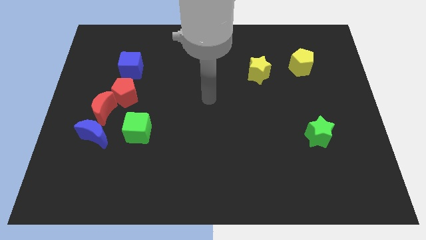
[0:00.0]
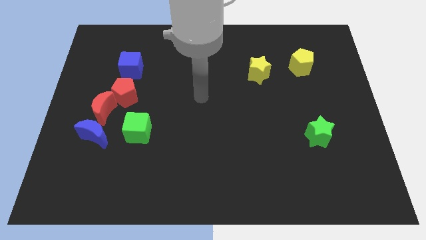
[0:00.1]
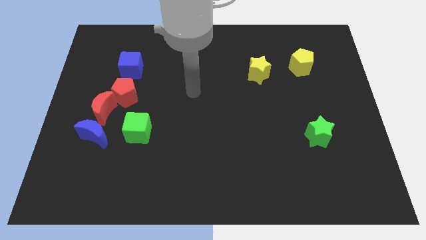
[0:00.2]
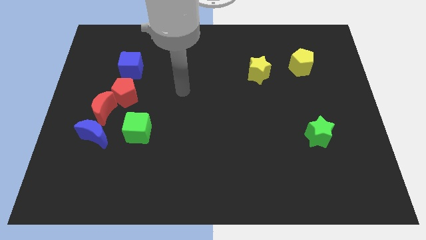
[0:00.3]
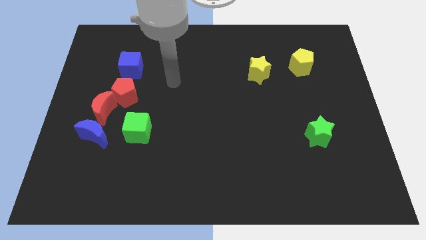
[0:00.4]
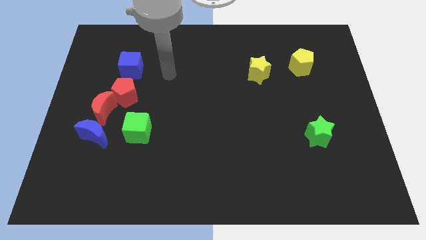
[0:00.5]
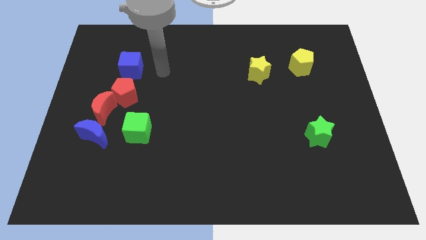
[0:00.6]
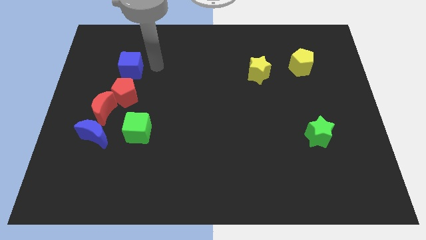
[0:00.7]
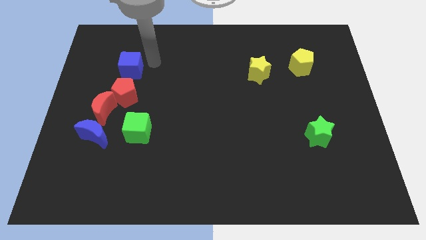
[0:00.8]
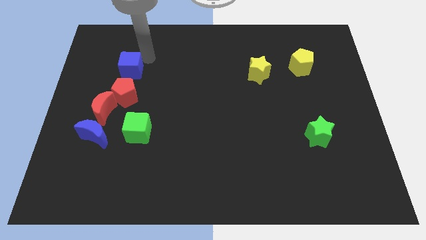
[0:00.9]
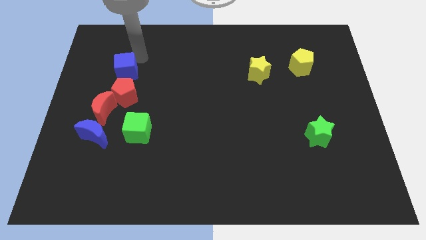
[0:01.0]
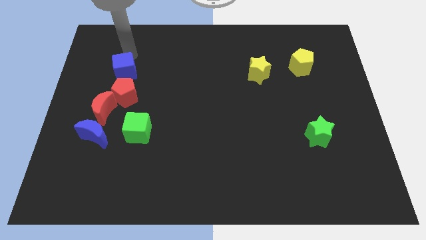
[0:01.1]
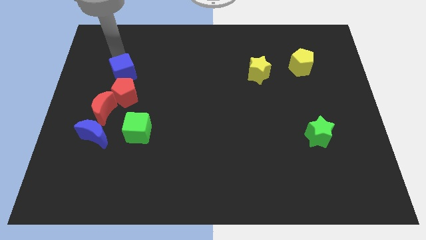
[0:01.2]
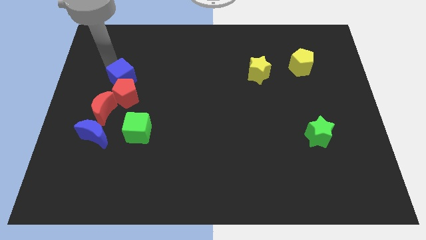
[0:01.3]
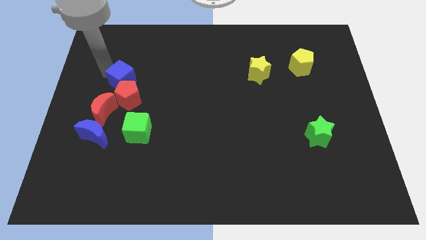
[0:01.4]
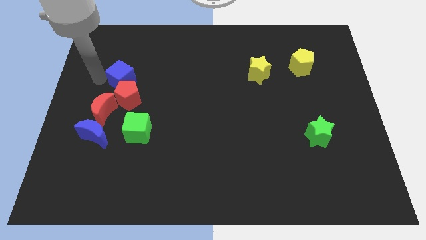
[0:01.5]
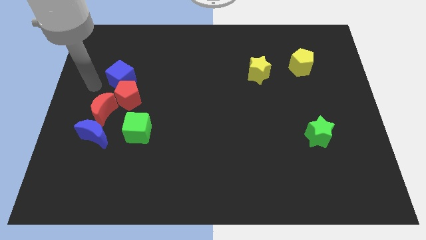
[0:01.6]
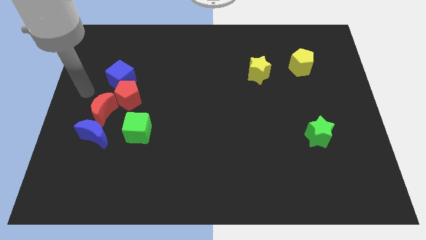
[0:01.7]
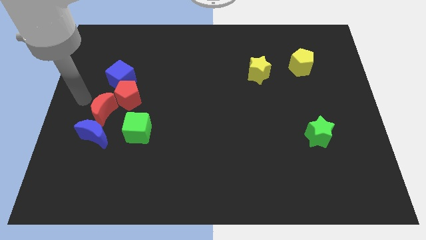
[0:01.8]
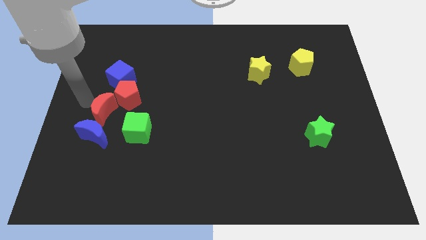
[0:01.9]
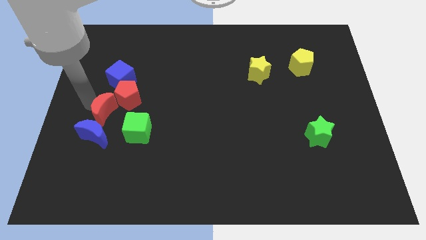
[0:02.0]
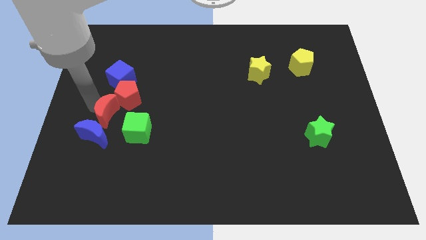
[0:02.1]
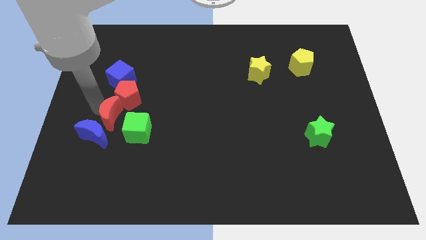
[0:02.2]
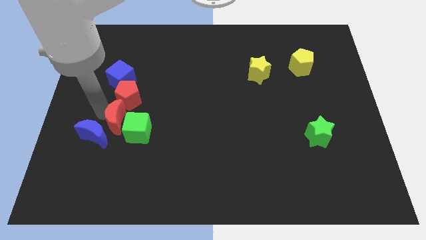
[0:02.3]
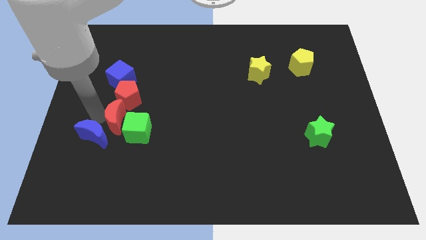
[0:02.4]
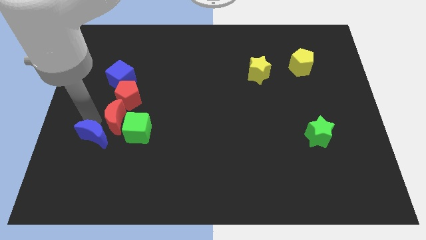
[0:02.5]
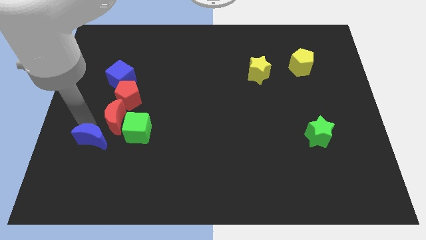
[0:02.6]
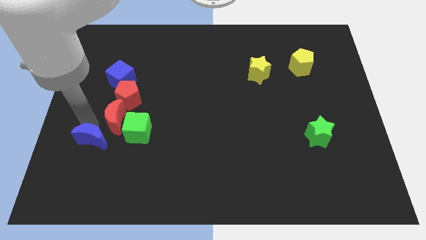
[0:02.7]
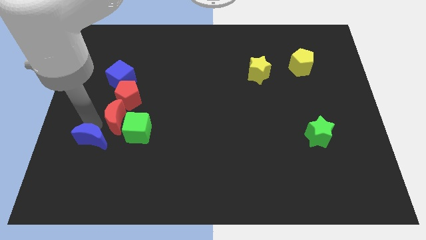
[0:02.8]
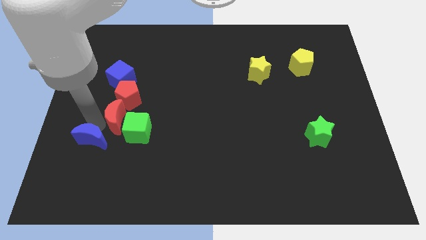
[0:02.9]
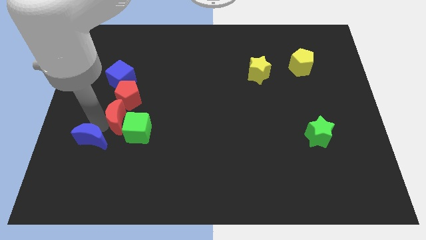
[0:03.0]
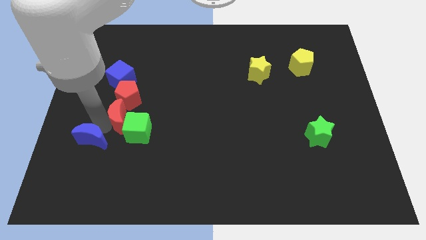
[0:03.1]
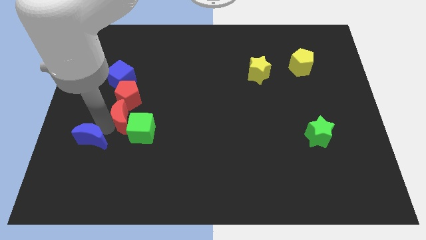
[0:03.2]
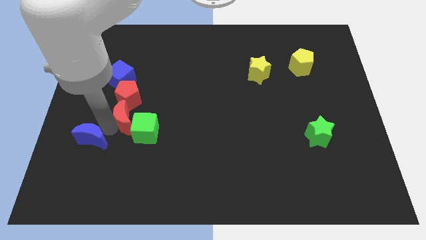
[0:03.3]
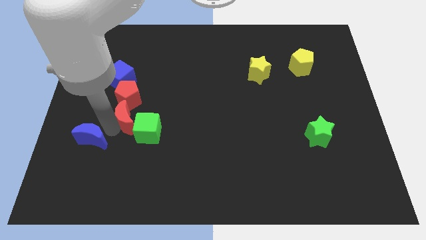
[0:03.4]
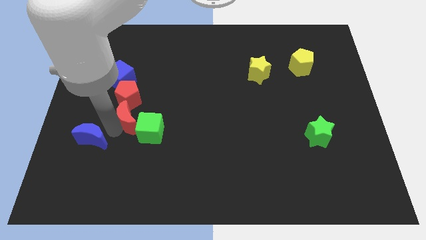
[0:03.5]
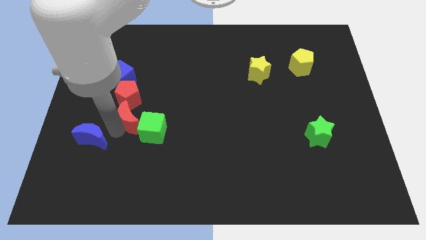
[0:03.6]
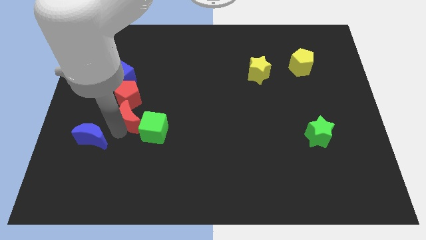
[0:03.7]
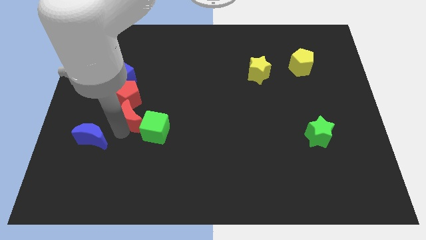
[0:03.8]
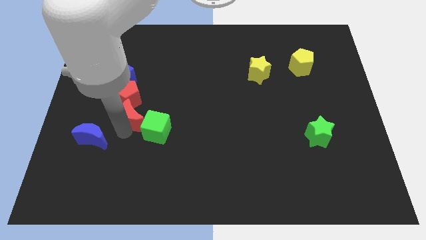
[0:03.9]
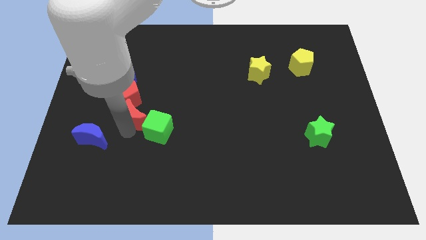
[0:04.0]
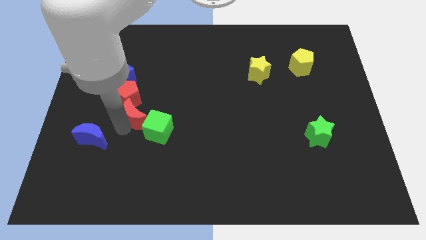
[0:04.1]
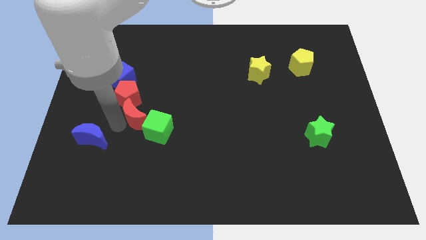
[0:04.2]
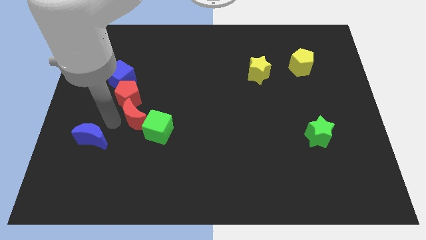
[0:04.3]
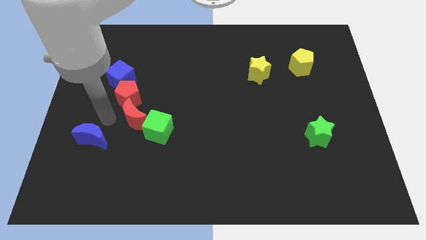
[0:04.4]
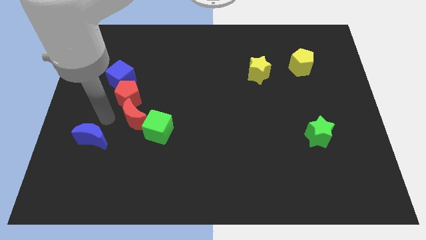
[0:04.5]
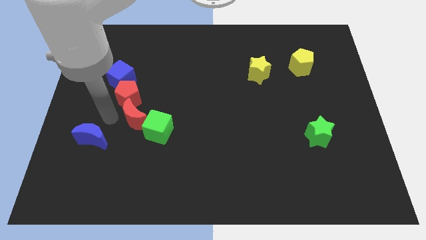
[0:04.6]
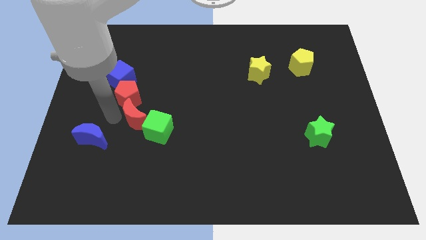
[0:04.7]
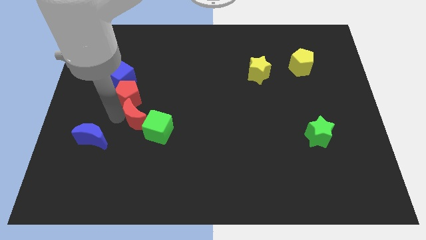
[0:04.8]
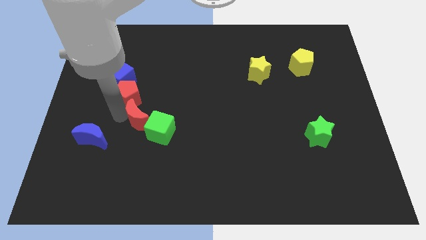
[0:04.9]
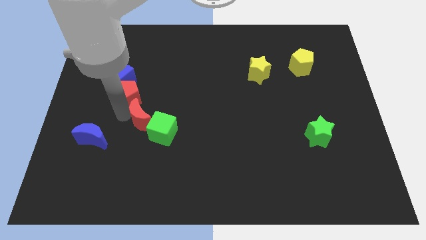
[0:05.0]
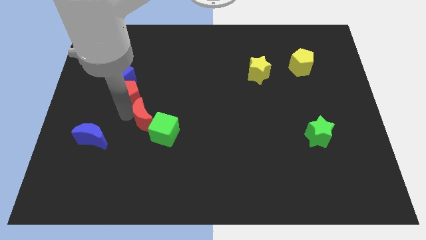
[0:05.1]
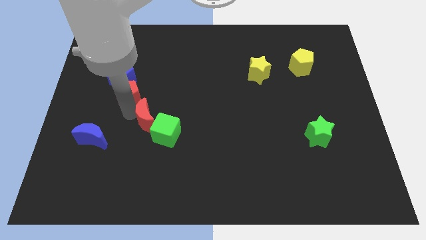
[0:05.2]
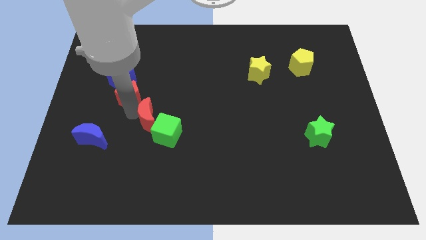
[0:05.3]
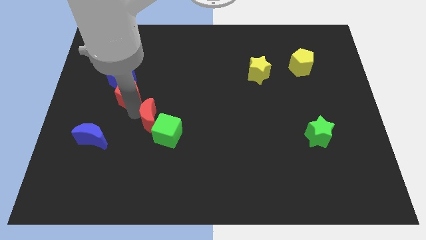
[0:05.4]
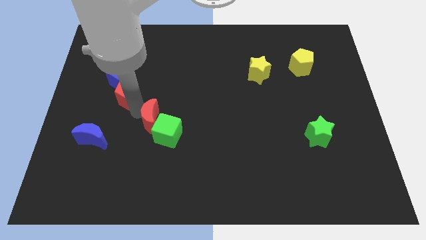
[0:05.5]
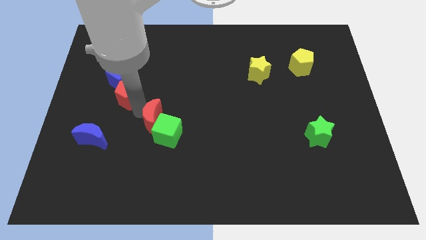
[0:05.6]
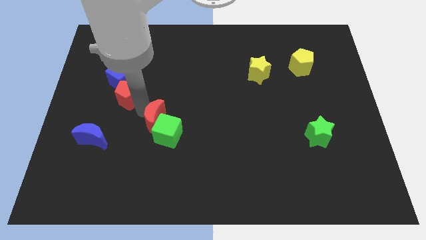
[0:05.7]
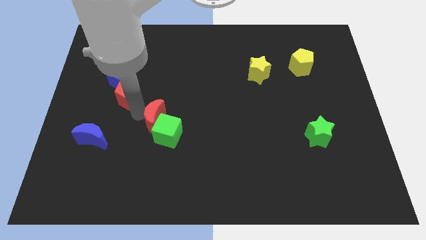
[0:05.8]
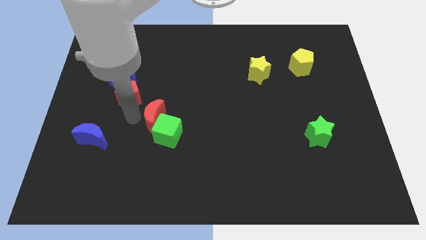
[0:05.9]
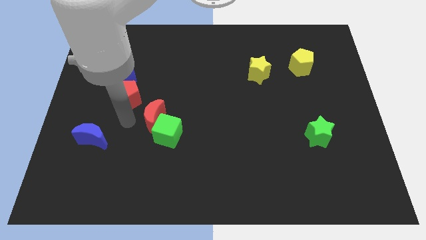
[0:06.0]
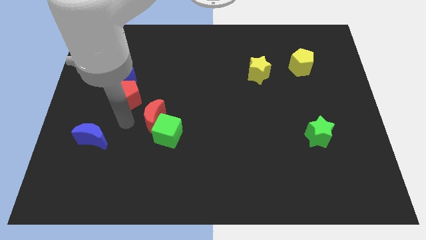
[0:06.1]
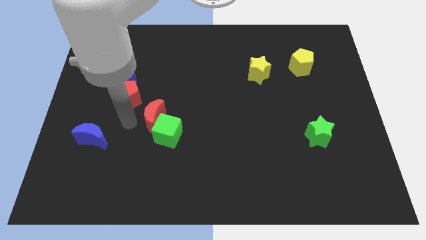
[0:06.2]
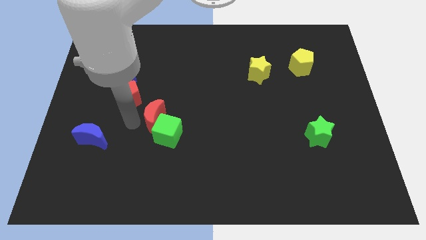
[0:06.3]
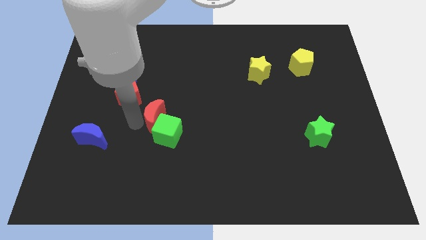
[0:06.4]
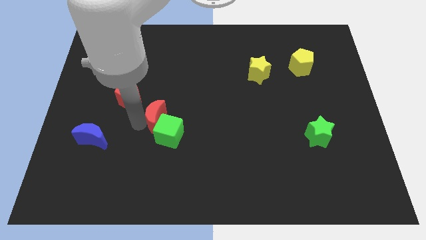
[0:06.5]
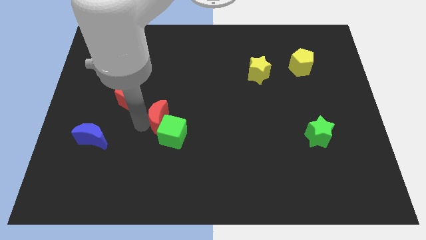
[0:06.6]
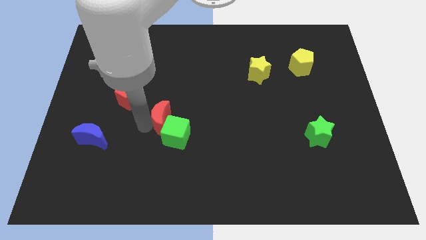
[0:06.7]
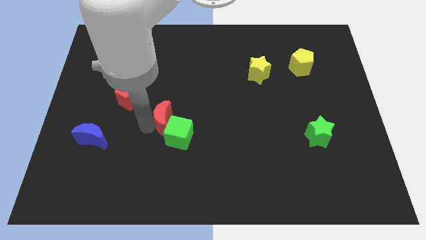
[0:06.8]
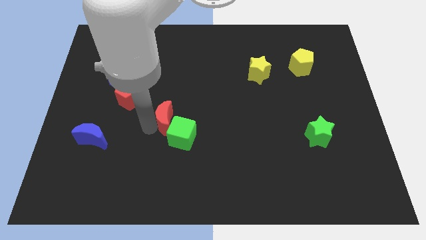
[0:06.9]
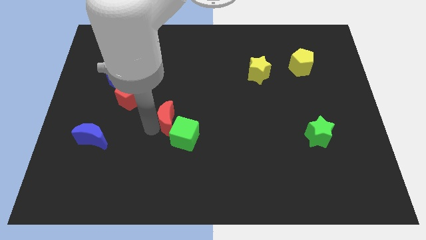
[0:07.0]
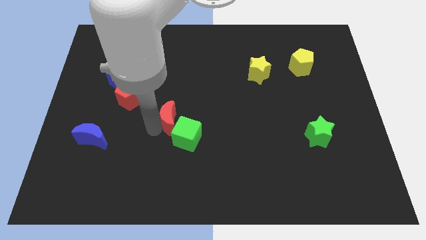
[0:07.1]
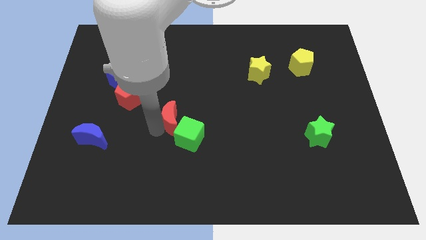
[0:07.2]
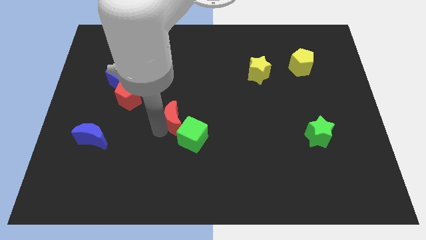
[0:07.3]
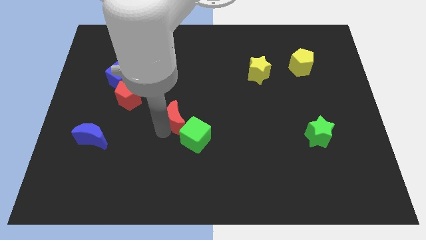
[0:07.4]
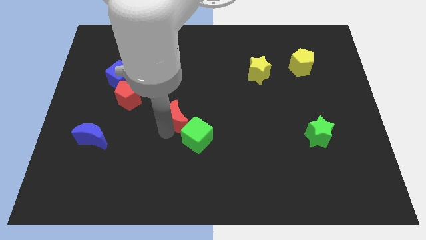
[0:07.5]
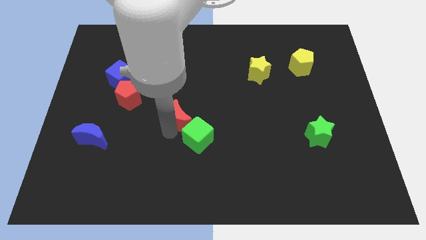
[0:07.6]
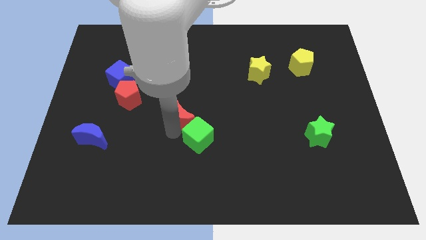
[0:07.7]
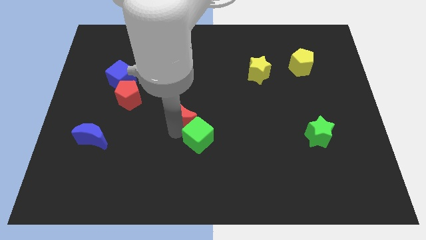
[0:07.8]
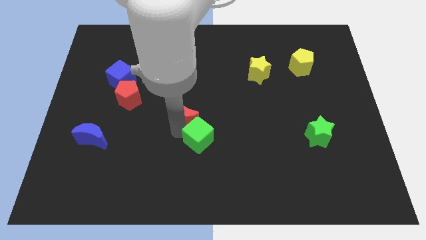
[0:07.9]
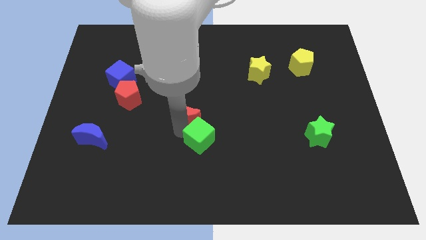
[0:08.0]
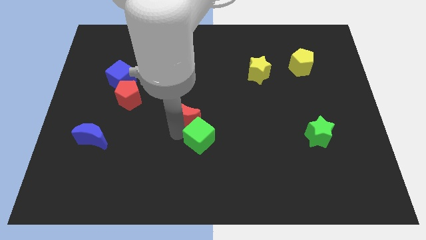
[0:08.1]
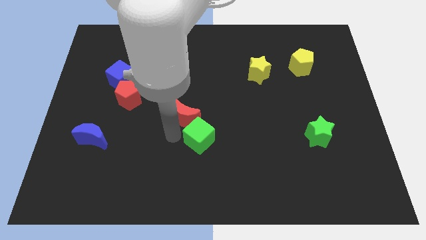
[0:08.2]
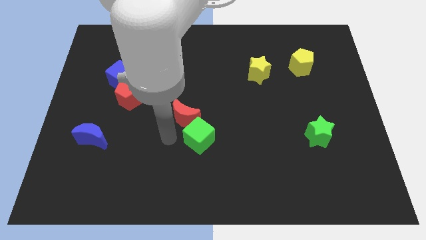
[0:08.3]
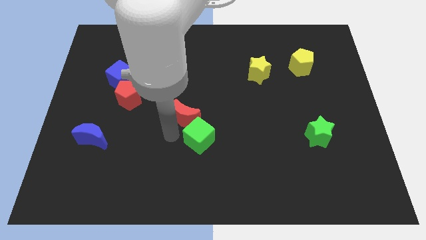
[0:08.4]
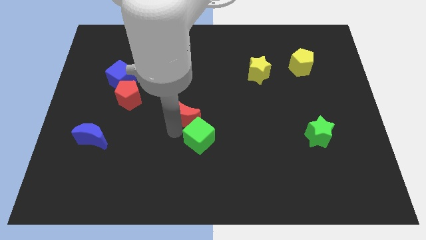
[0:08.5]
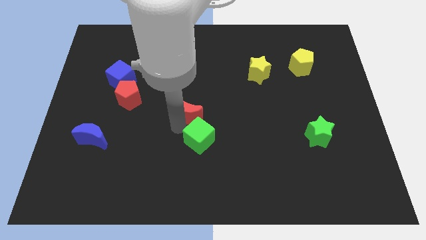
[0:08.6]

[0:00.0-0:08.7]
push the red moon to the right
